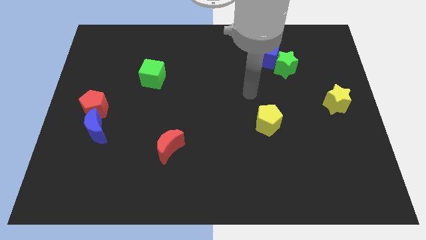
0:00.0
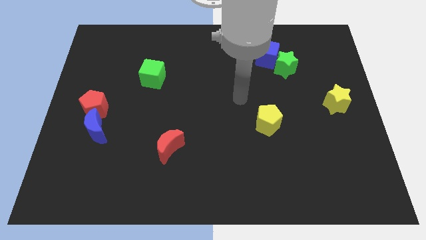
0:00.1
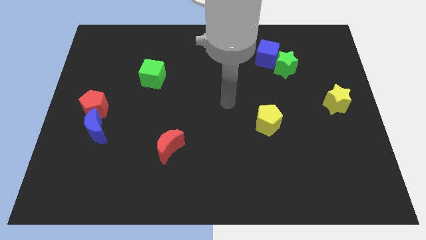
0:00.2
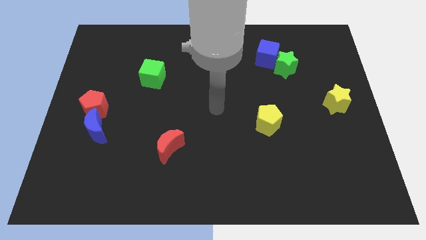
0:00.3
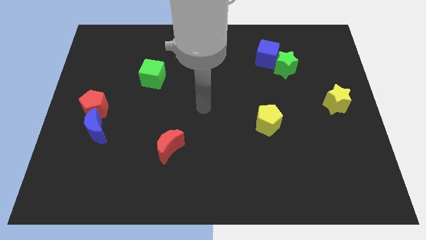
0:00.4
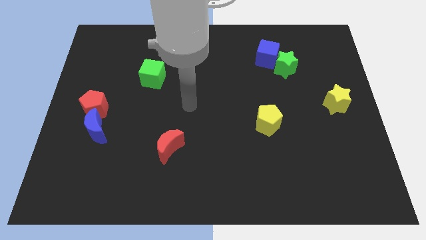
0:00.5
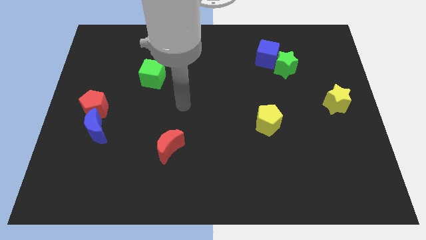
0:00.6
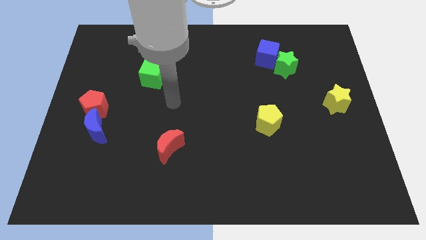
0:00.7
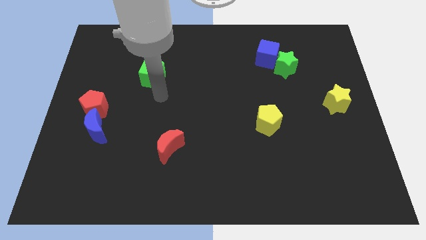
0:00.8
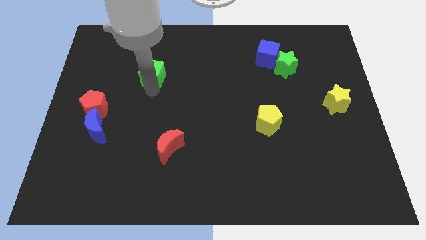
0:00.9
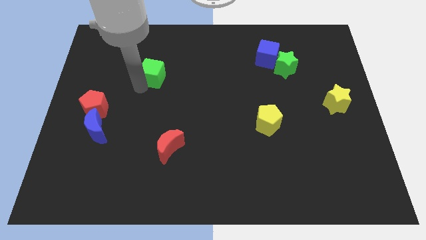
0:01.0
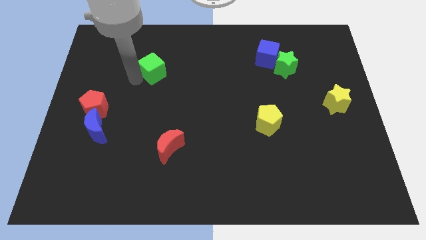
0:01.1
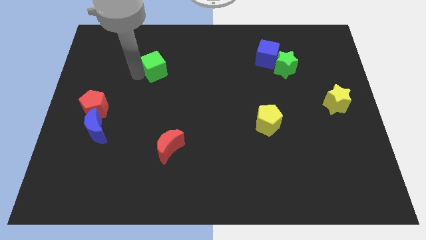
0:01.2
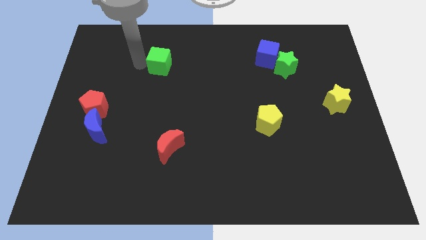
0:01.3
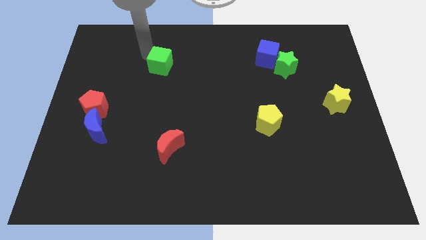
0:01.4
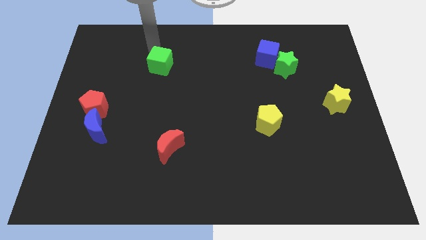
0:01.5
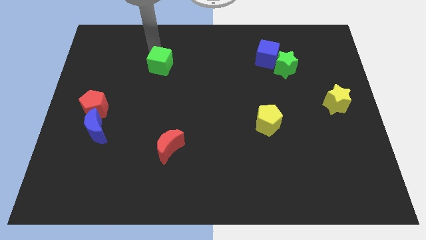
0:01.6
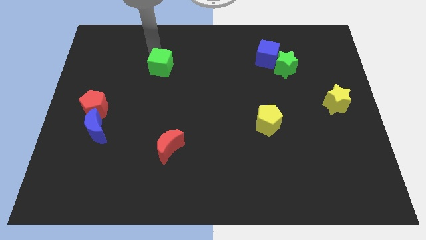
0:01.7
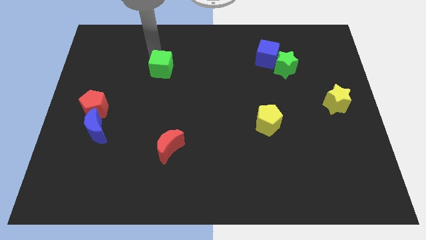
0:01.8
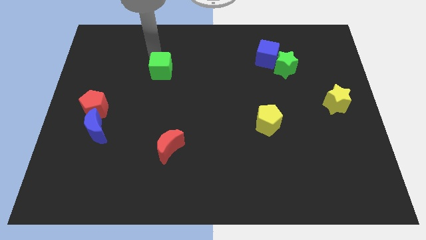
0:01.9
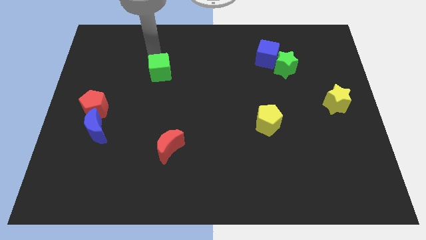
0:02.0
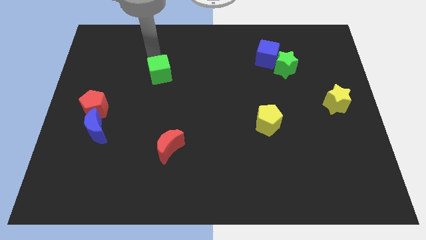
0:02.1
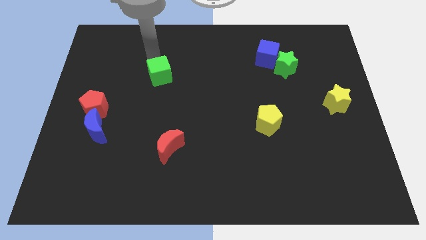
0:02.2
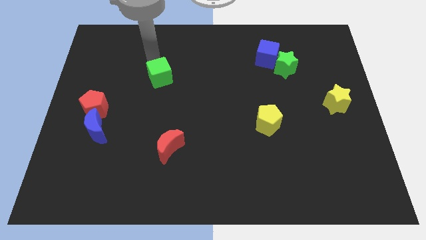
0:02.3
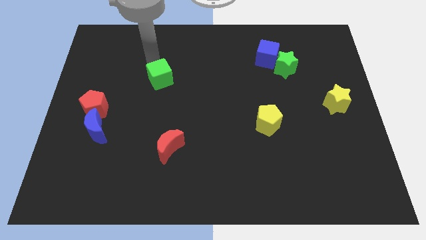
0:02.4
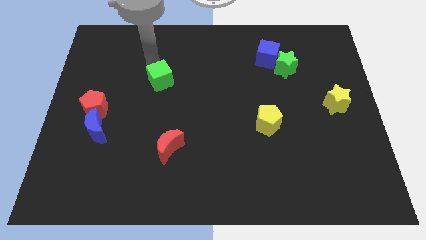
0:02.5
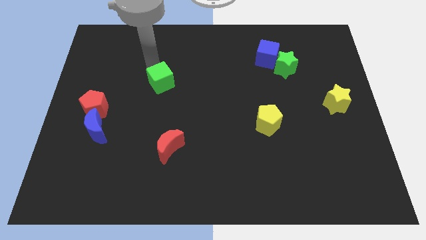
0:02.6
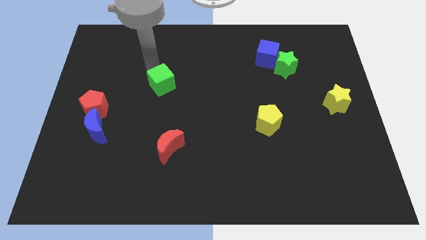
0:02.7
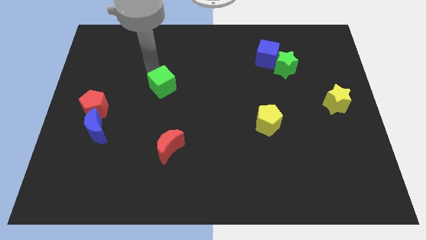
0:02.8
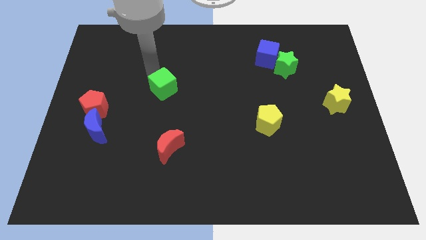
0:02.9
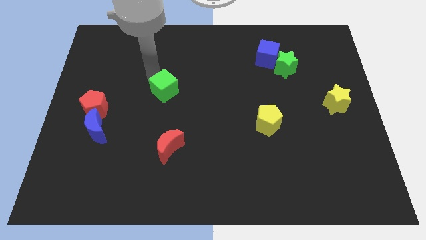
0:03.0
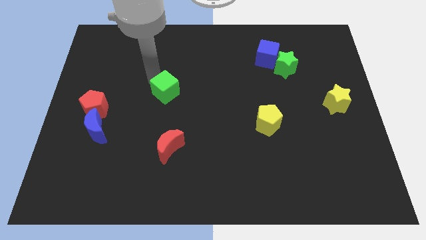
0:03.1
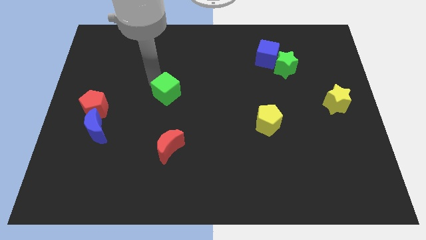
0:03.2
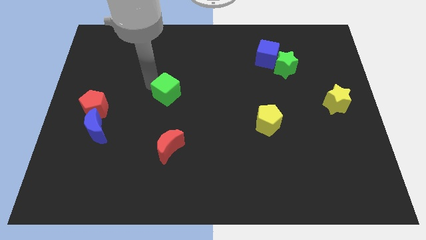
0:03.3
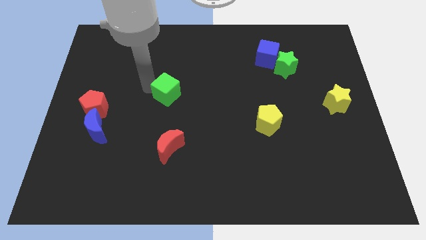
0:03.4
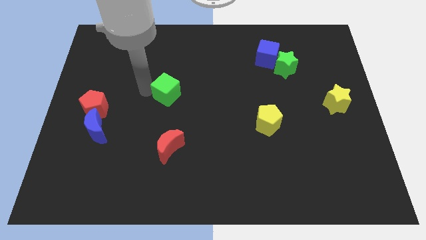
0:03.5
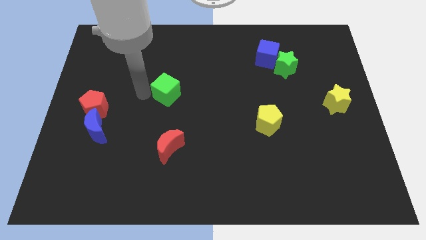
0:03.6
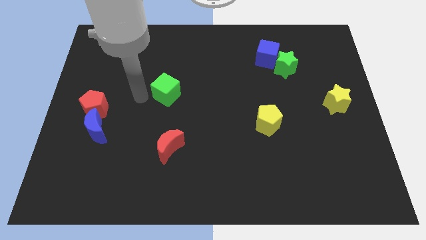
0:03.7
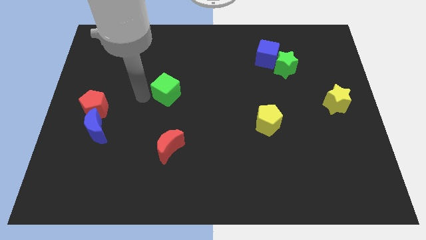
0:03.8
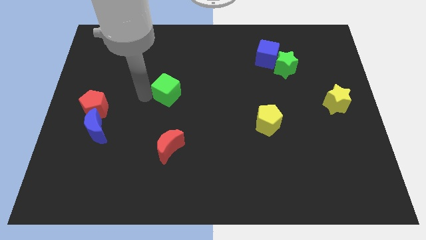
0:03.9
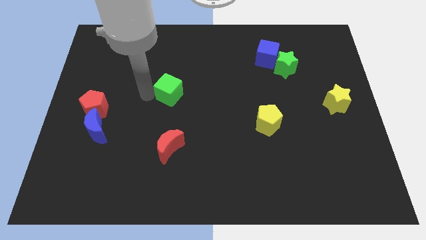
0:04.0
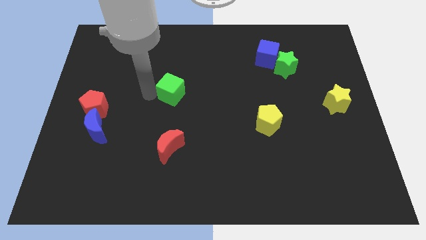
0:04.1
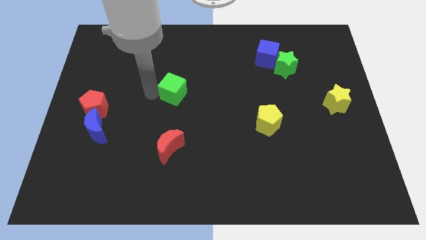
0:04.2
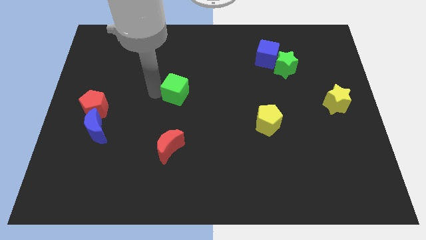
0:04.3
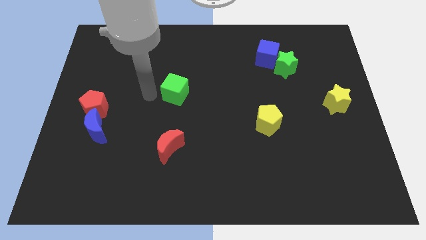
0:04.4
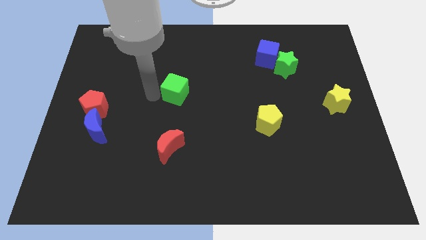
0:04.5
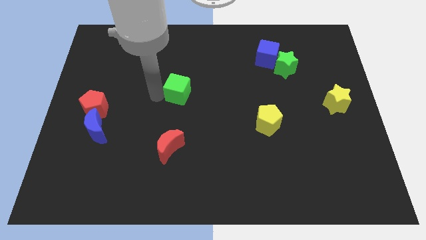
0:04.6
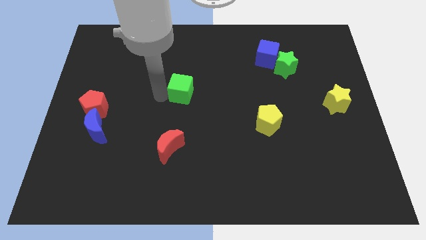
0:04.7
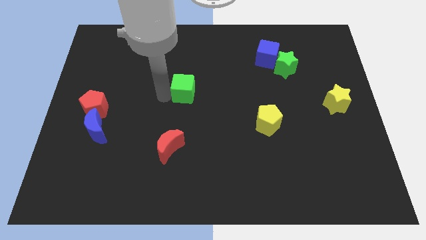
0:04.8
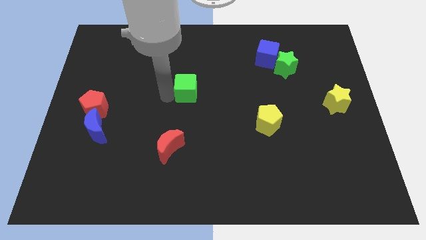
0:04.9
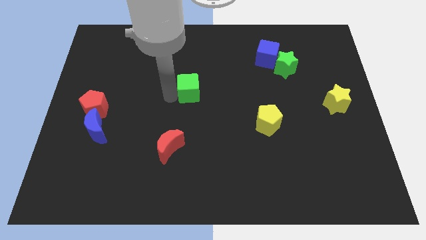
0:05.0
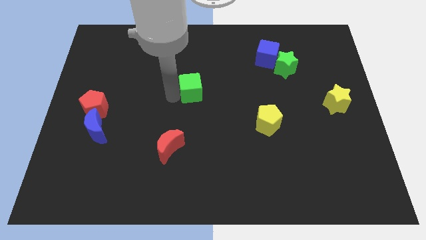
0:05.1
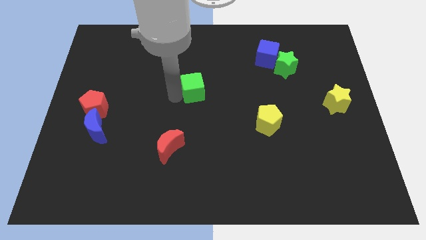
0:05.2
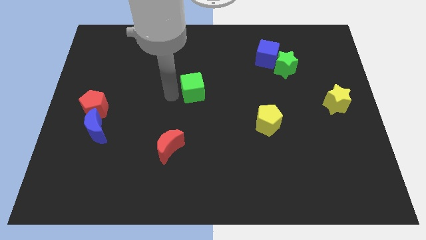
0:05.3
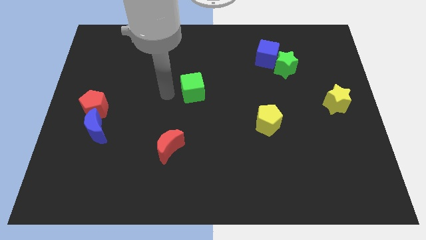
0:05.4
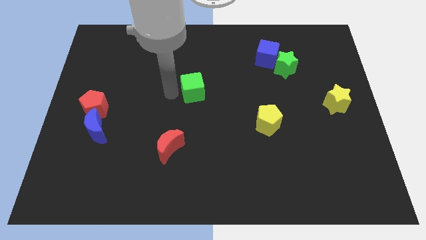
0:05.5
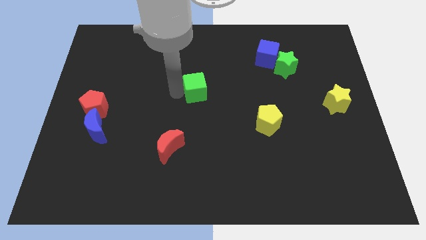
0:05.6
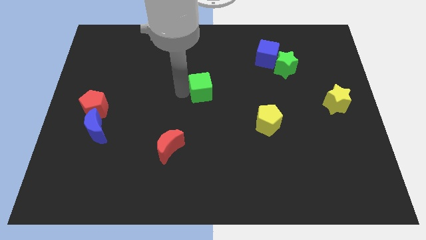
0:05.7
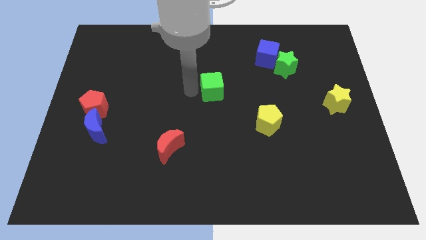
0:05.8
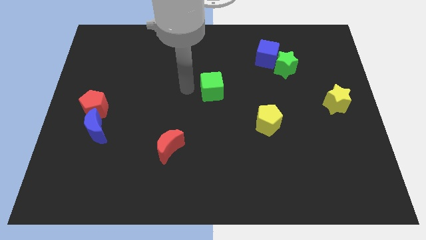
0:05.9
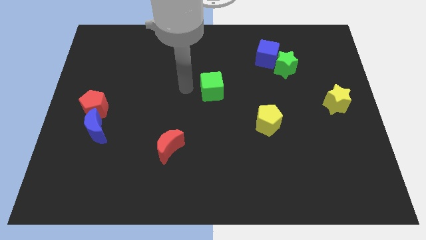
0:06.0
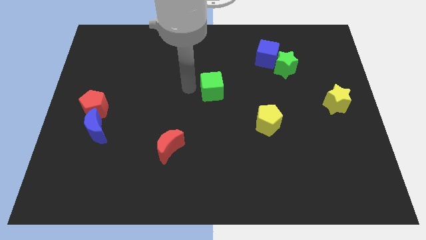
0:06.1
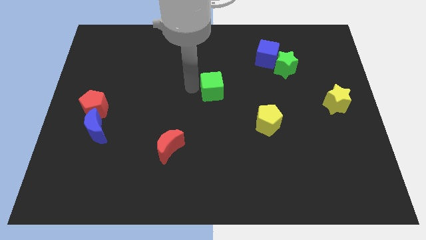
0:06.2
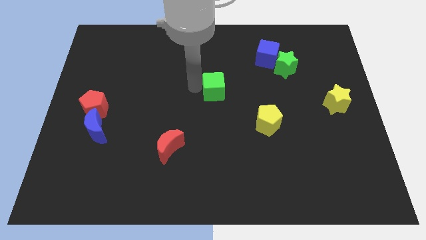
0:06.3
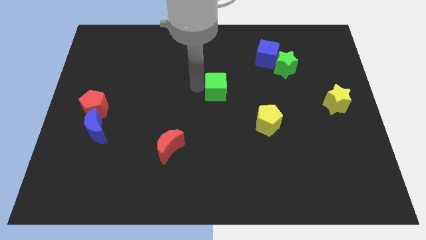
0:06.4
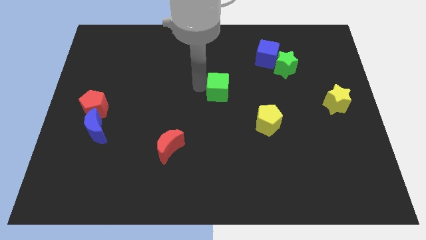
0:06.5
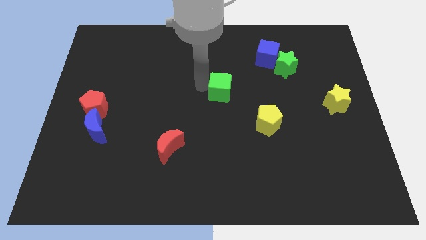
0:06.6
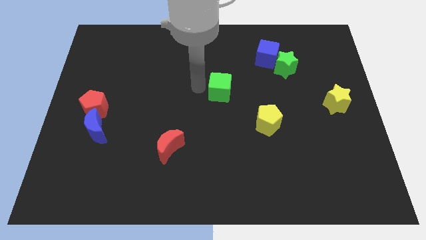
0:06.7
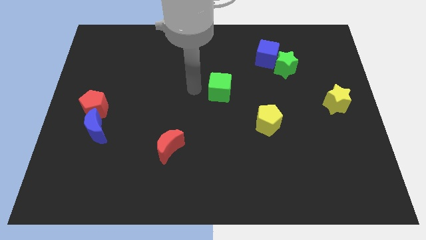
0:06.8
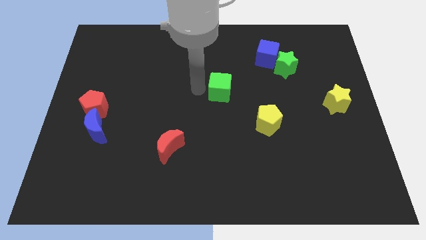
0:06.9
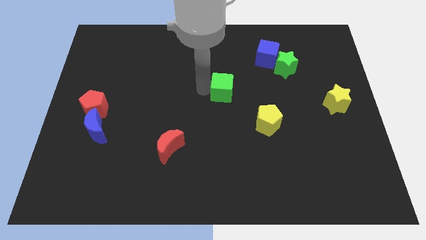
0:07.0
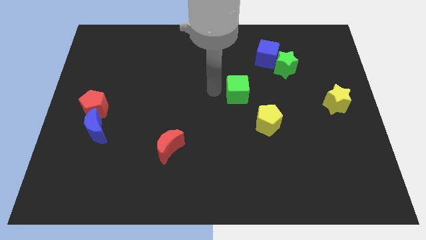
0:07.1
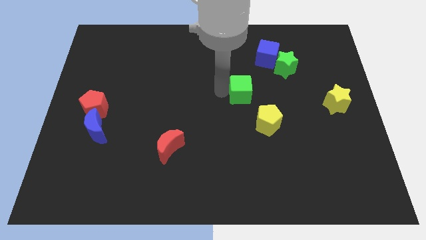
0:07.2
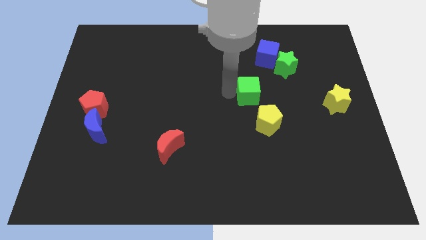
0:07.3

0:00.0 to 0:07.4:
push the green cube to the top side of the yellow pentagon
